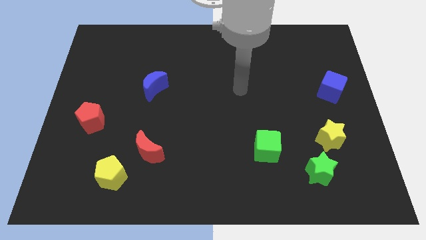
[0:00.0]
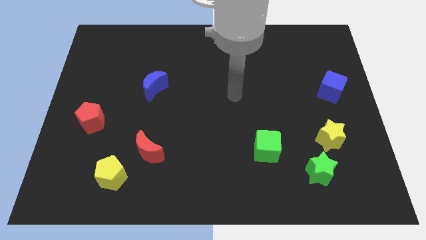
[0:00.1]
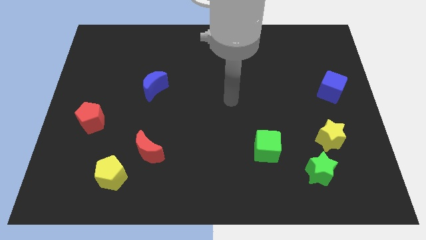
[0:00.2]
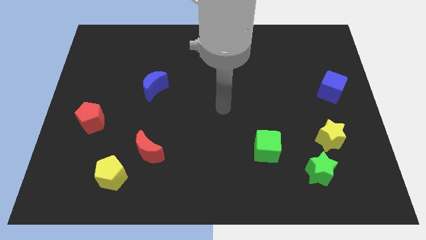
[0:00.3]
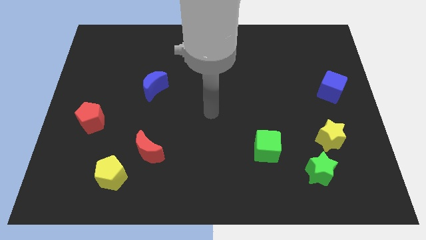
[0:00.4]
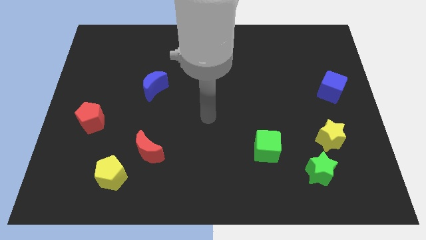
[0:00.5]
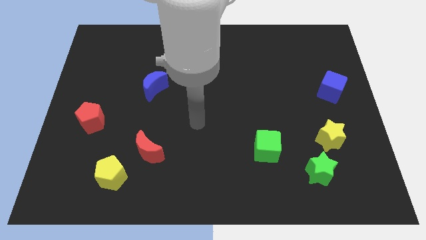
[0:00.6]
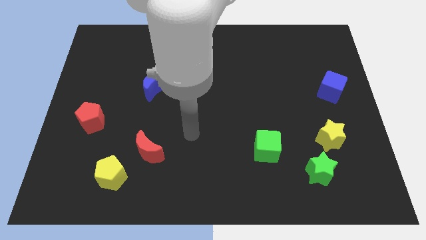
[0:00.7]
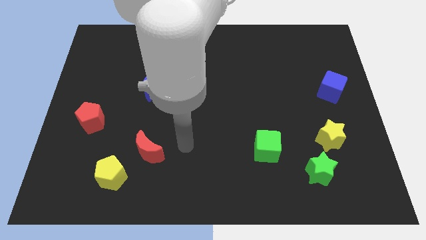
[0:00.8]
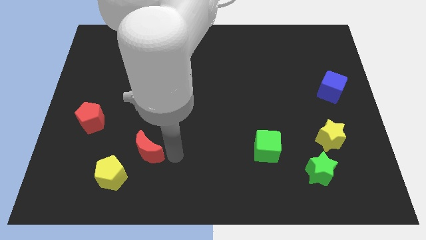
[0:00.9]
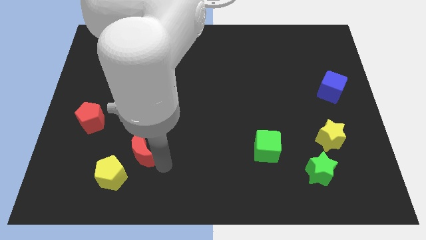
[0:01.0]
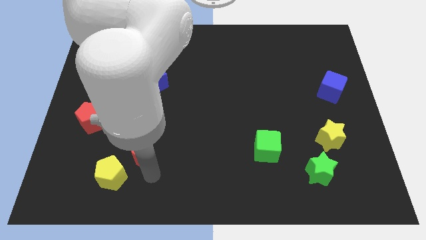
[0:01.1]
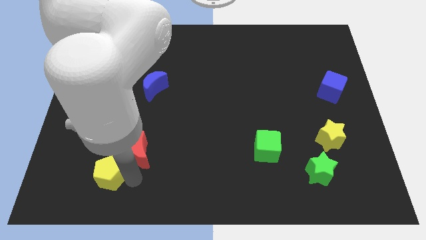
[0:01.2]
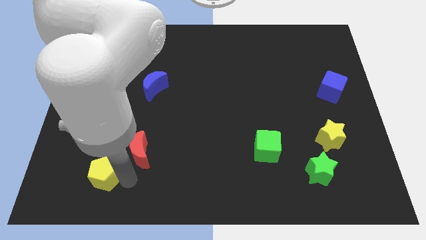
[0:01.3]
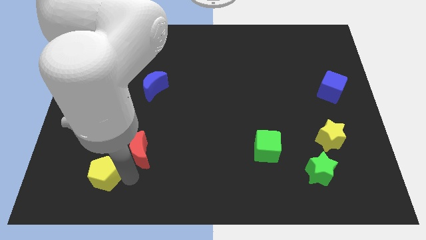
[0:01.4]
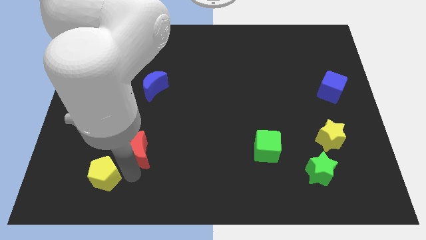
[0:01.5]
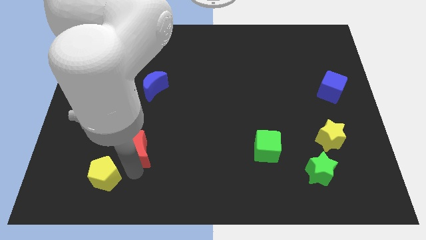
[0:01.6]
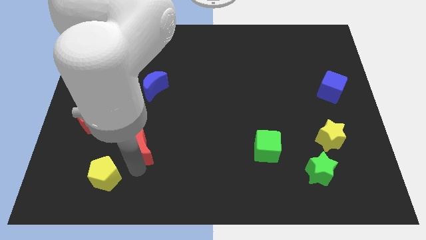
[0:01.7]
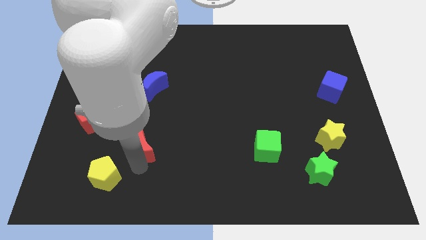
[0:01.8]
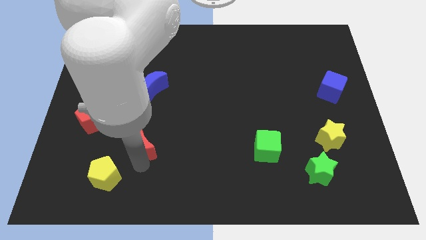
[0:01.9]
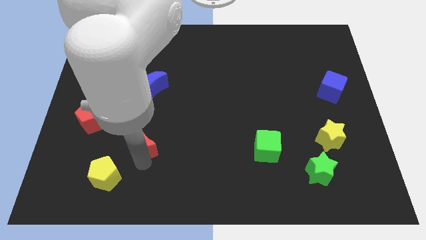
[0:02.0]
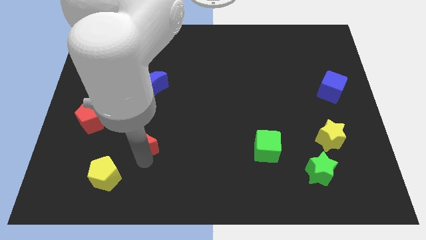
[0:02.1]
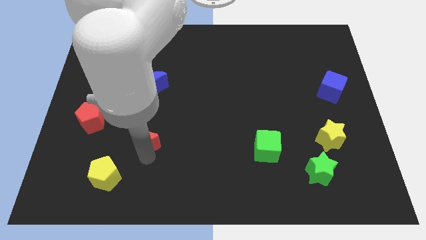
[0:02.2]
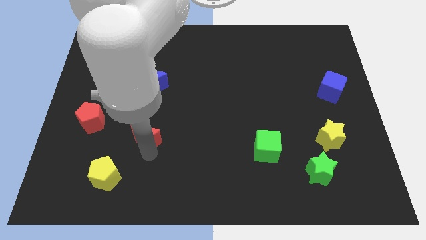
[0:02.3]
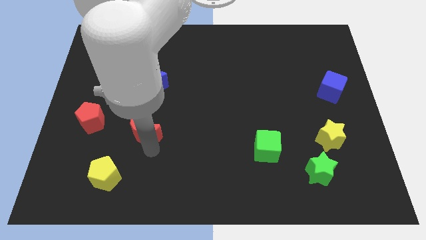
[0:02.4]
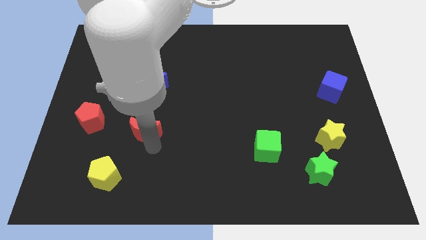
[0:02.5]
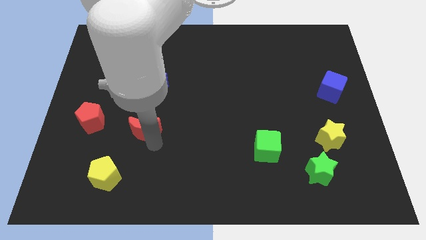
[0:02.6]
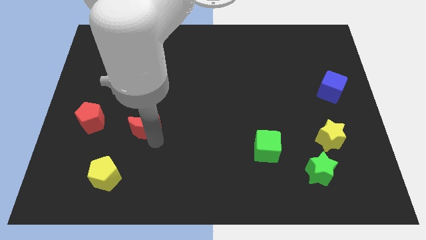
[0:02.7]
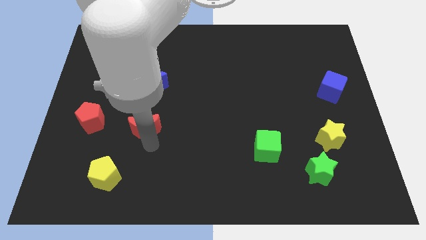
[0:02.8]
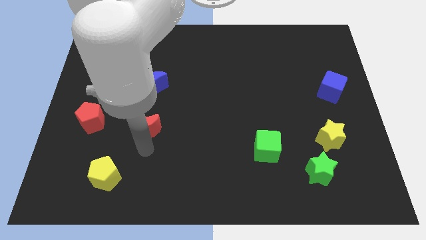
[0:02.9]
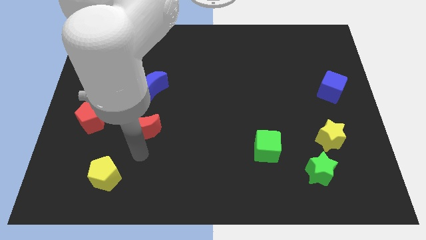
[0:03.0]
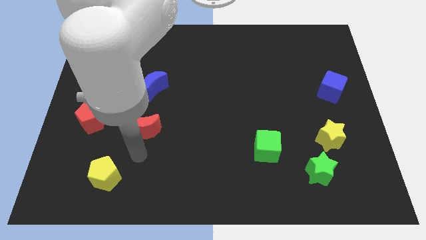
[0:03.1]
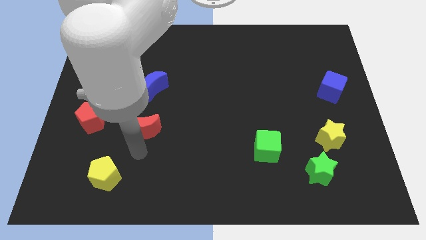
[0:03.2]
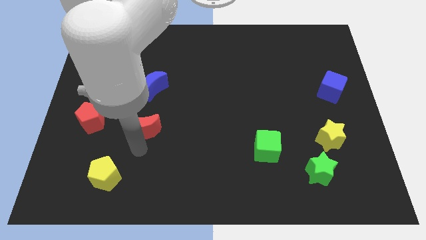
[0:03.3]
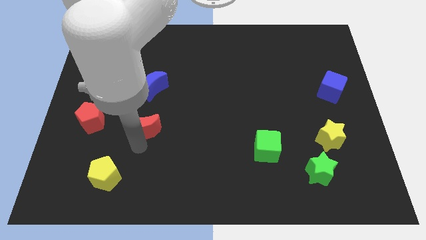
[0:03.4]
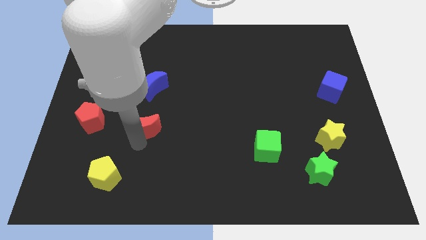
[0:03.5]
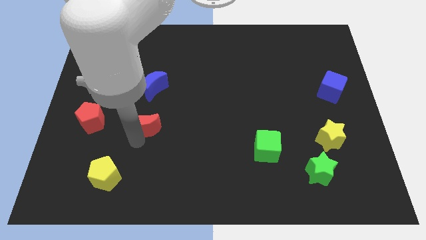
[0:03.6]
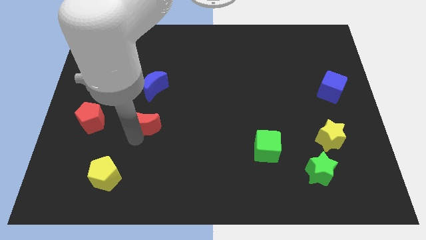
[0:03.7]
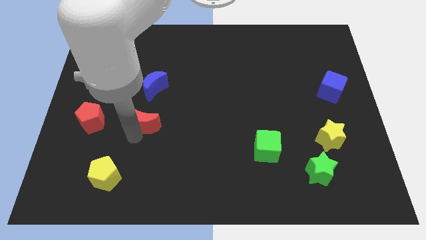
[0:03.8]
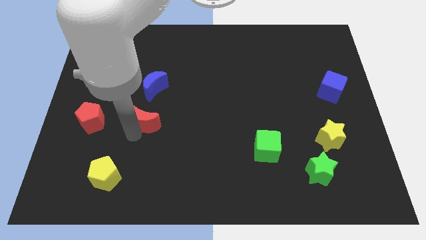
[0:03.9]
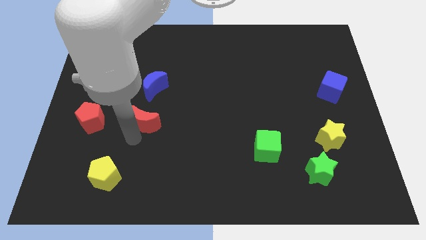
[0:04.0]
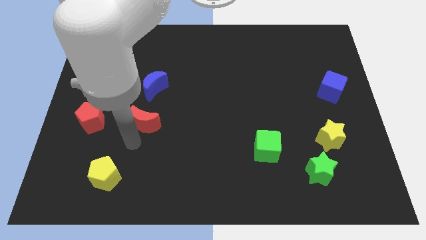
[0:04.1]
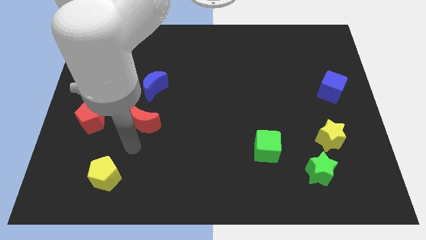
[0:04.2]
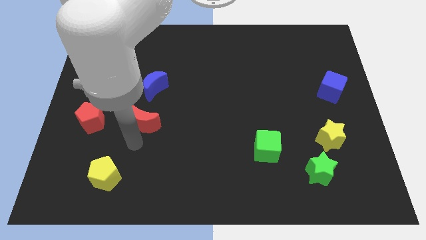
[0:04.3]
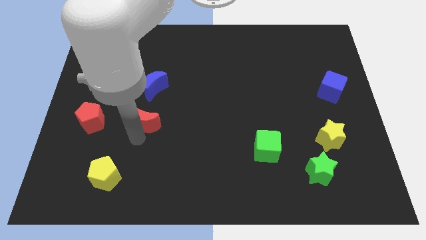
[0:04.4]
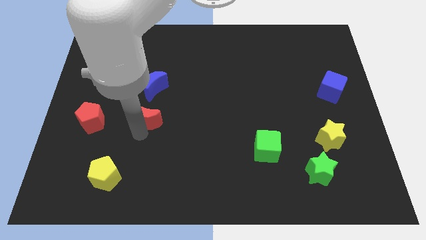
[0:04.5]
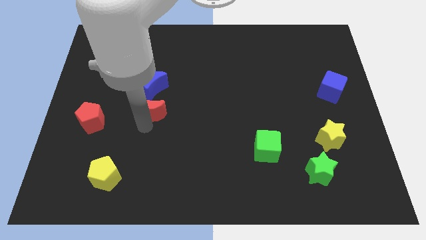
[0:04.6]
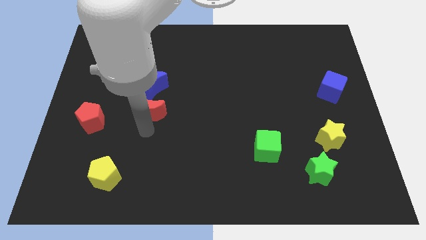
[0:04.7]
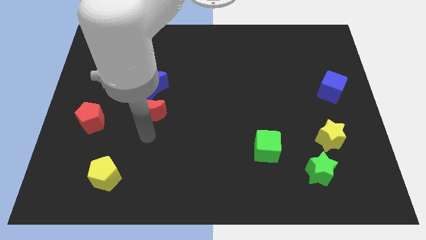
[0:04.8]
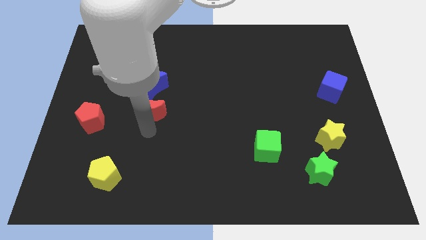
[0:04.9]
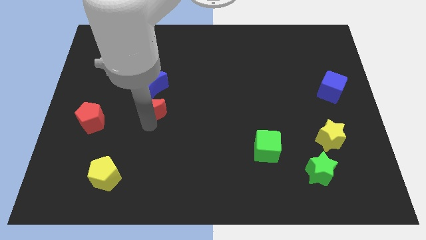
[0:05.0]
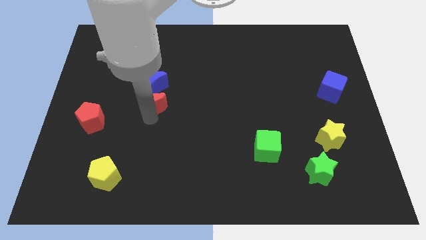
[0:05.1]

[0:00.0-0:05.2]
push the red moon to the blue moon

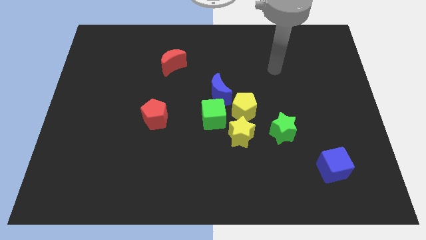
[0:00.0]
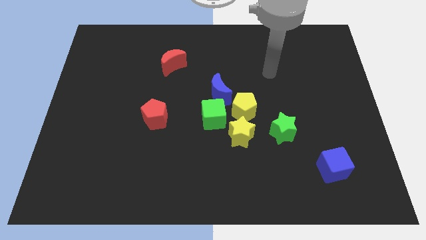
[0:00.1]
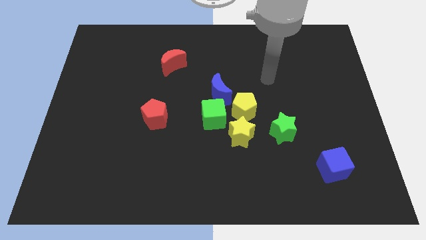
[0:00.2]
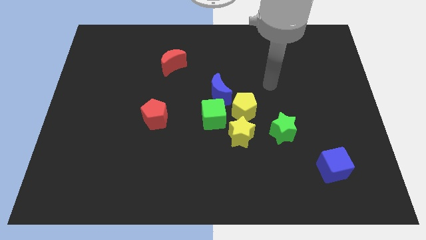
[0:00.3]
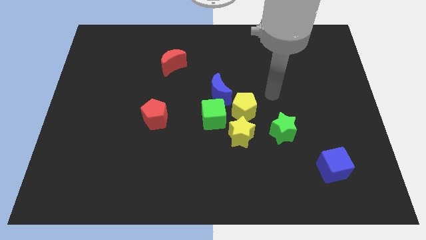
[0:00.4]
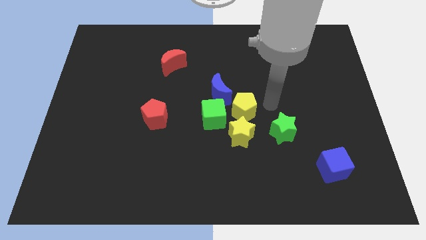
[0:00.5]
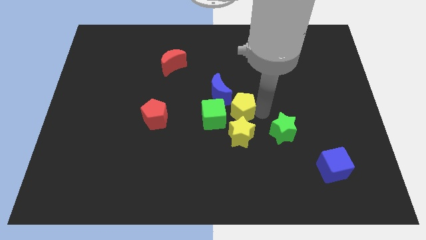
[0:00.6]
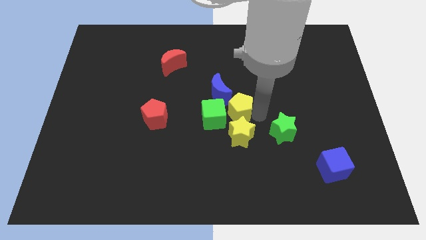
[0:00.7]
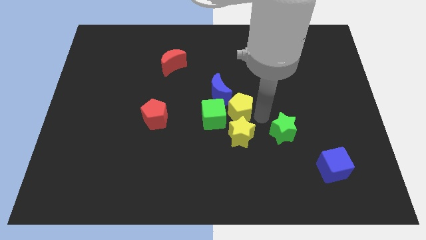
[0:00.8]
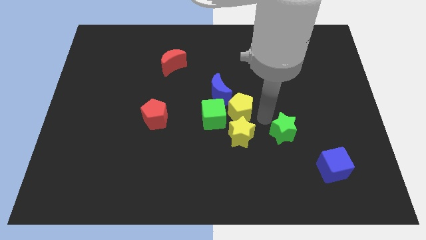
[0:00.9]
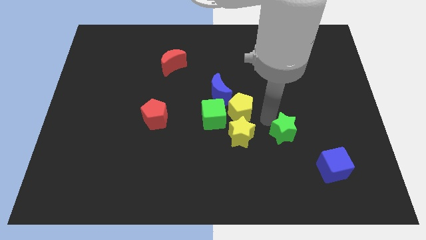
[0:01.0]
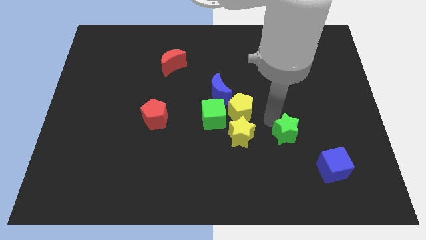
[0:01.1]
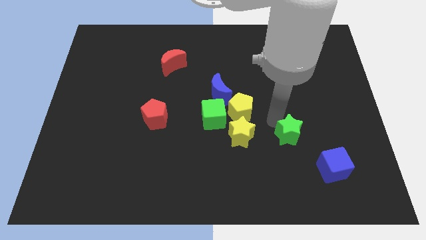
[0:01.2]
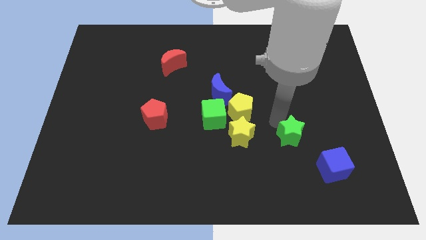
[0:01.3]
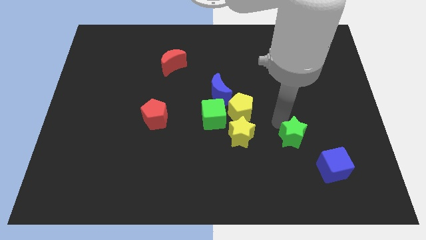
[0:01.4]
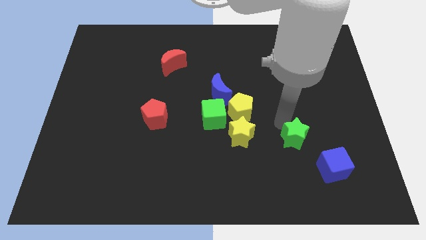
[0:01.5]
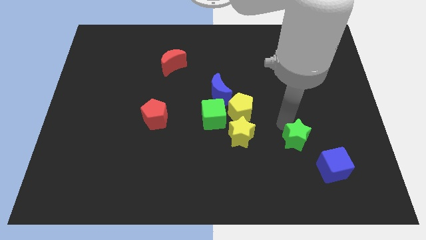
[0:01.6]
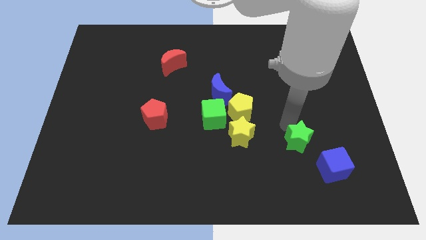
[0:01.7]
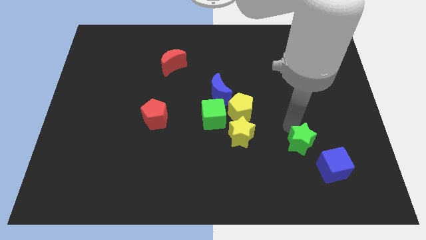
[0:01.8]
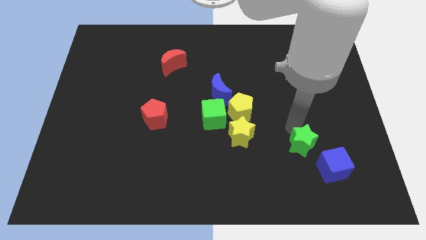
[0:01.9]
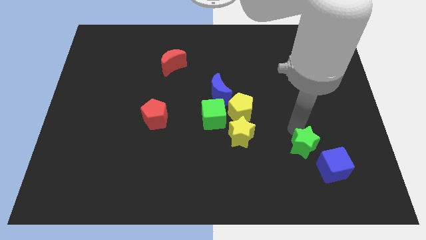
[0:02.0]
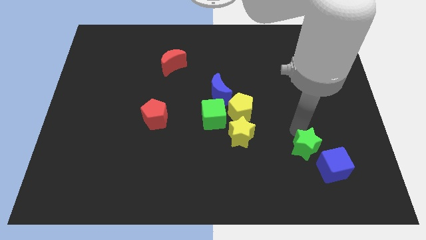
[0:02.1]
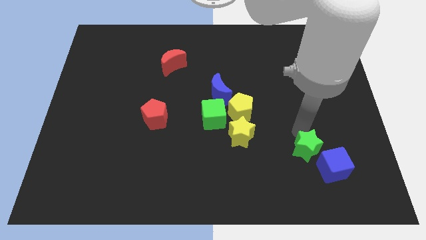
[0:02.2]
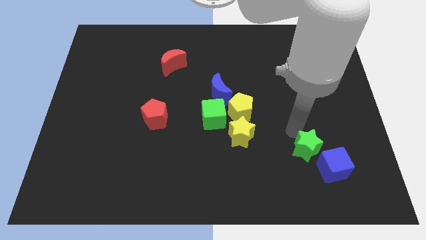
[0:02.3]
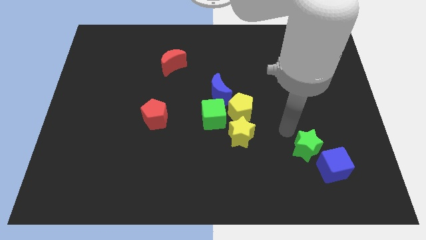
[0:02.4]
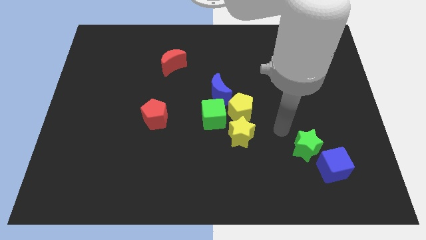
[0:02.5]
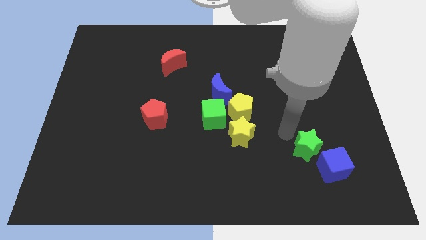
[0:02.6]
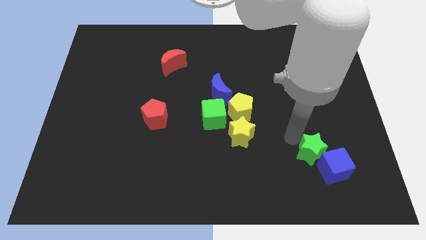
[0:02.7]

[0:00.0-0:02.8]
push the green star towards the blue cube
